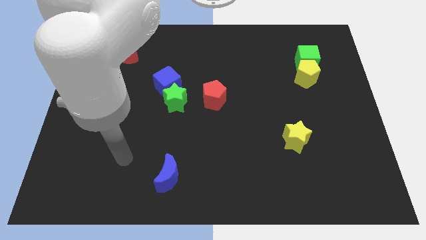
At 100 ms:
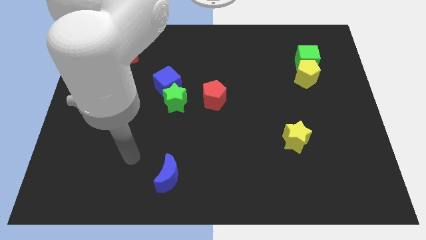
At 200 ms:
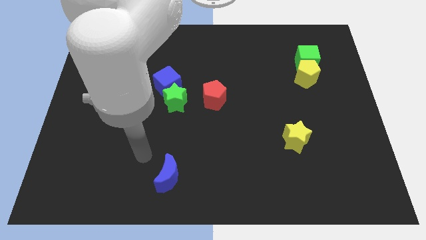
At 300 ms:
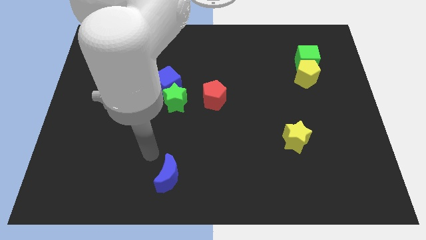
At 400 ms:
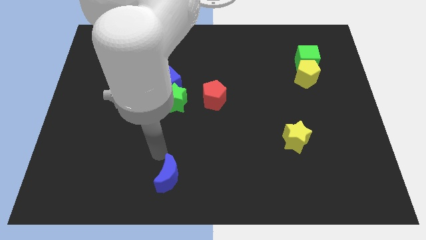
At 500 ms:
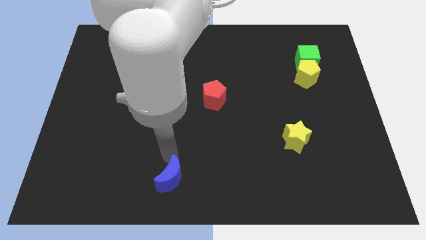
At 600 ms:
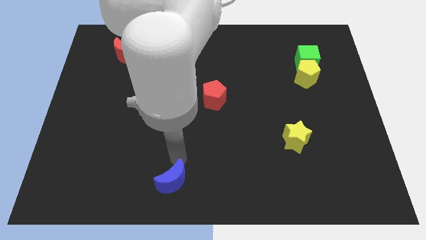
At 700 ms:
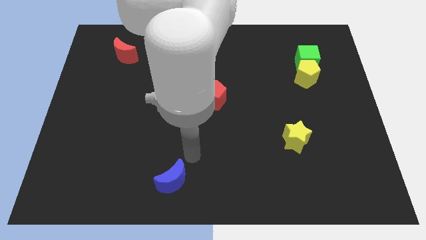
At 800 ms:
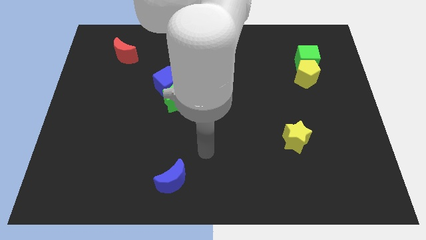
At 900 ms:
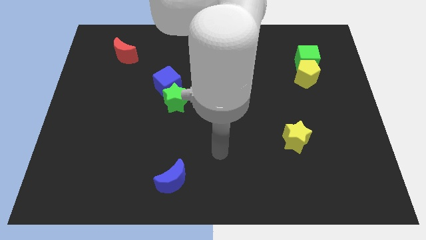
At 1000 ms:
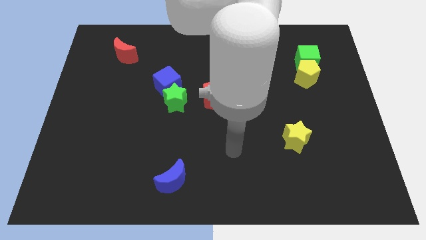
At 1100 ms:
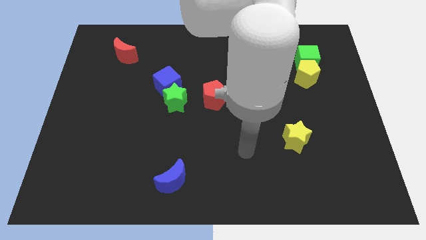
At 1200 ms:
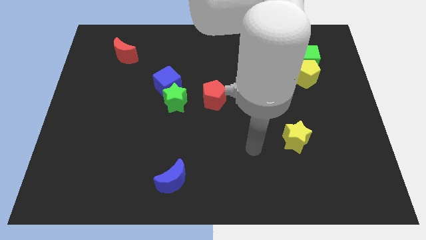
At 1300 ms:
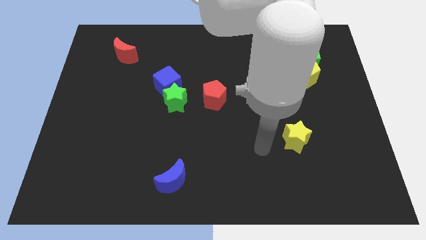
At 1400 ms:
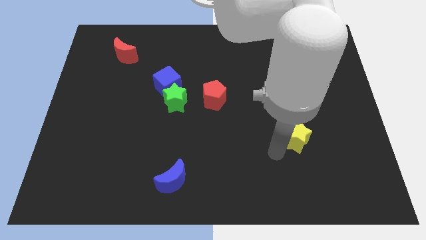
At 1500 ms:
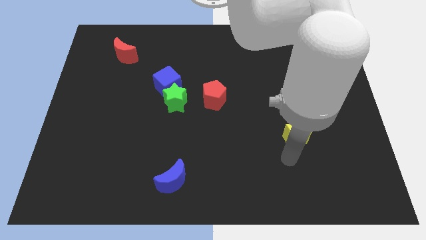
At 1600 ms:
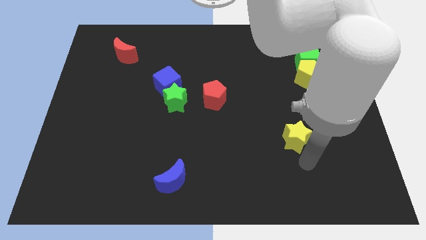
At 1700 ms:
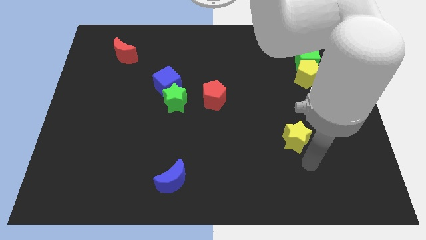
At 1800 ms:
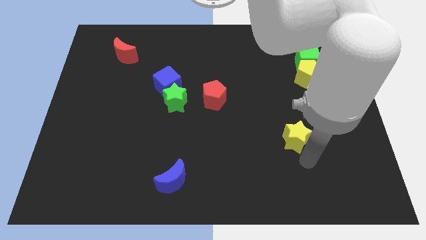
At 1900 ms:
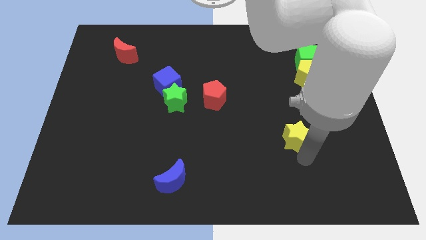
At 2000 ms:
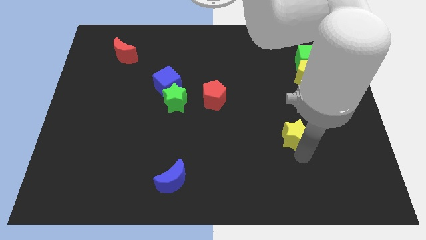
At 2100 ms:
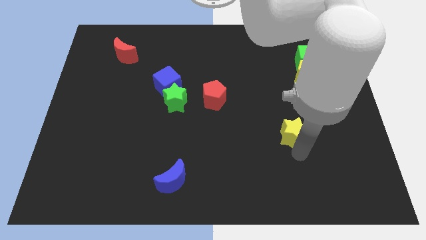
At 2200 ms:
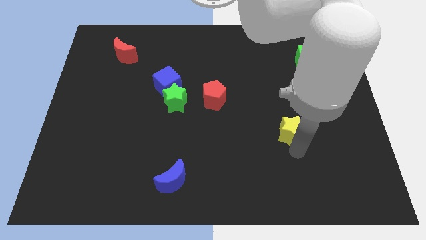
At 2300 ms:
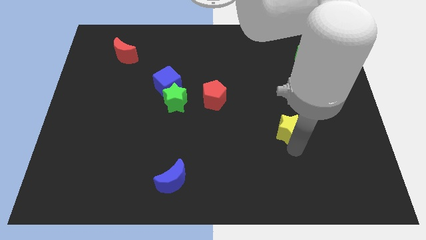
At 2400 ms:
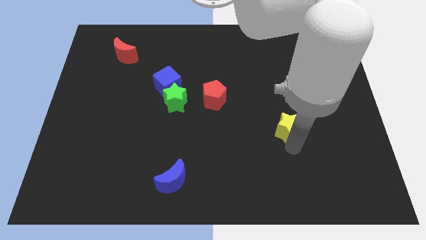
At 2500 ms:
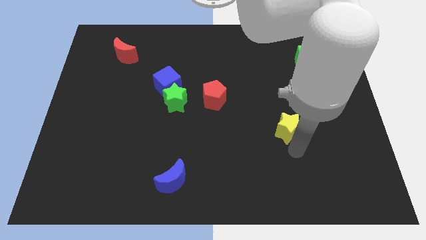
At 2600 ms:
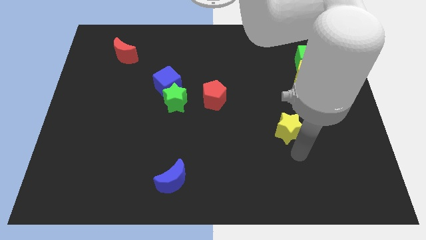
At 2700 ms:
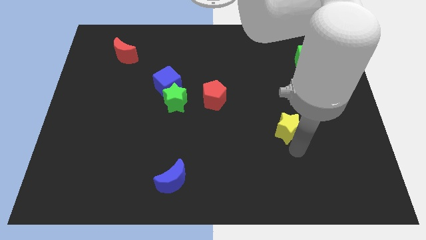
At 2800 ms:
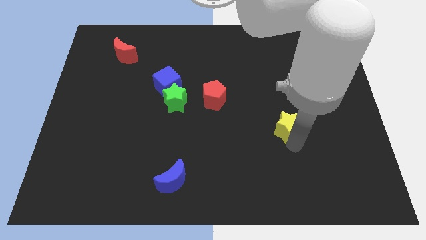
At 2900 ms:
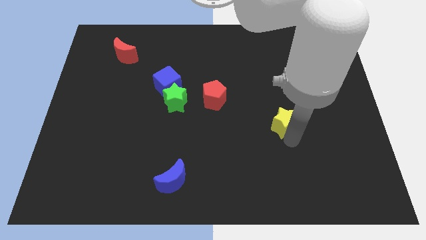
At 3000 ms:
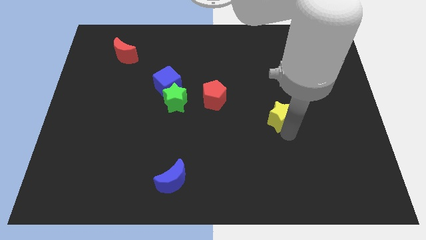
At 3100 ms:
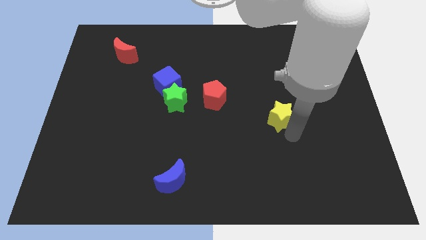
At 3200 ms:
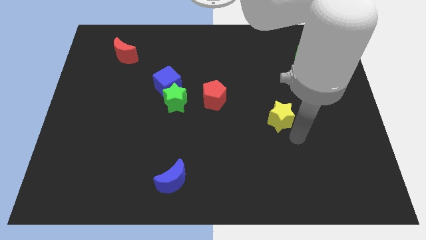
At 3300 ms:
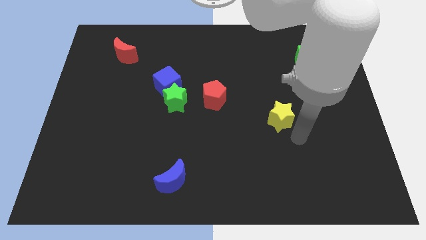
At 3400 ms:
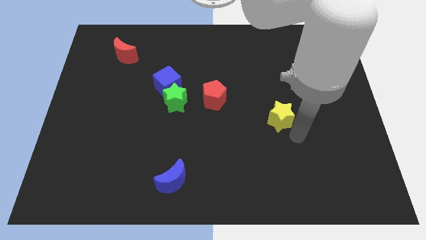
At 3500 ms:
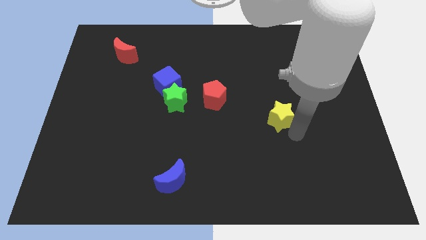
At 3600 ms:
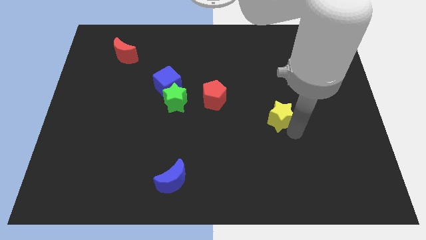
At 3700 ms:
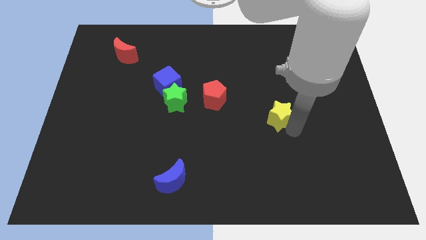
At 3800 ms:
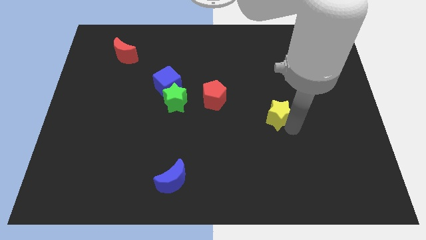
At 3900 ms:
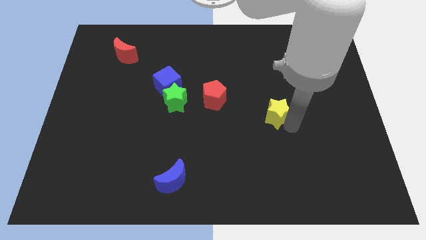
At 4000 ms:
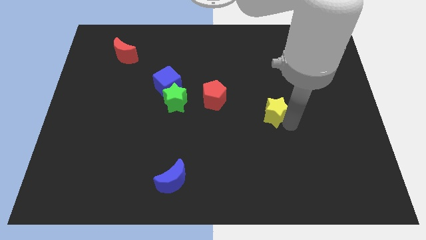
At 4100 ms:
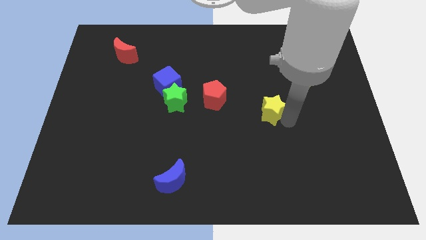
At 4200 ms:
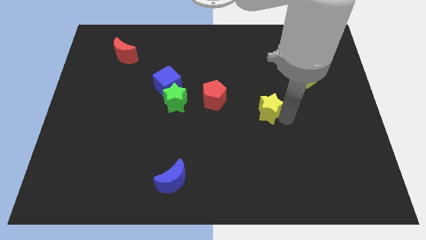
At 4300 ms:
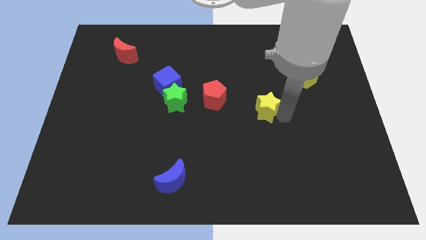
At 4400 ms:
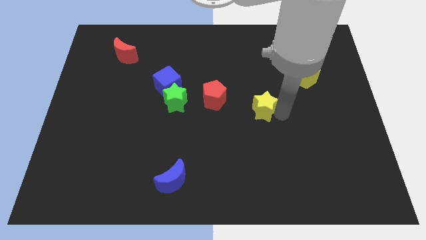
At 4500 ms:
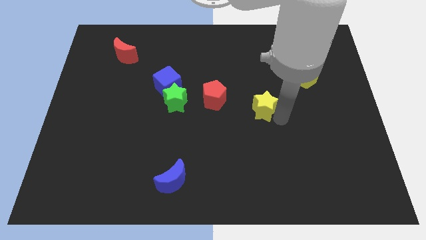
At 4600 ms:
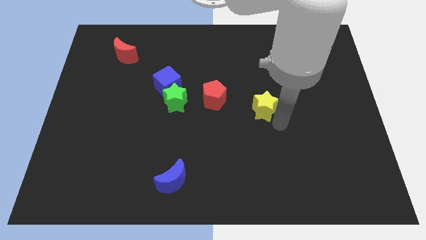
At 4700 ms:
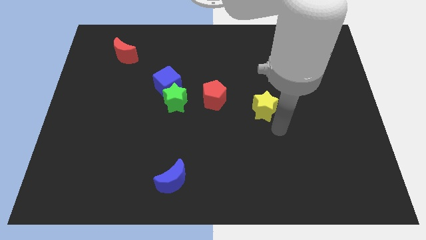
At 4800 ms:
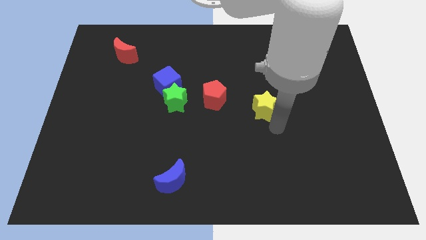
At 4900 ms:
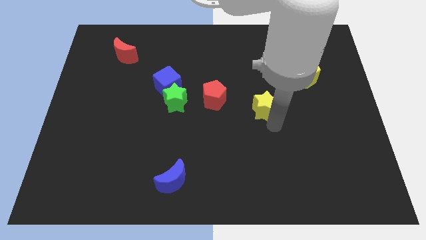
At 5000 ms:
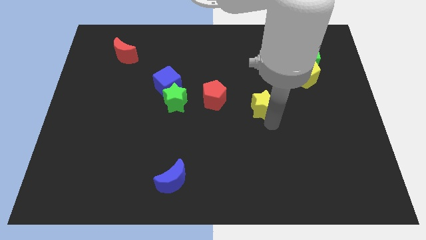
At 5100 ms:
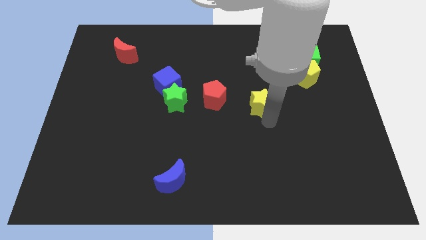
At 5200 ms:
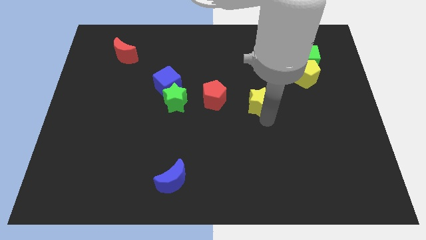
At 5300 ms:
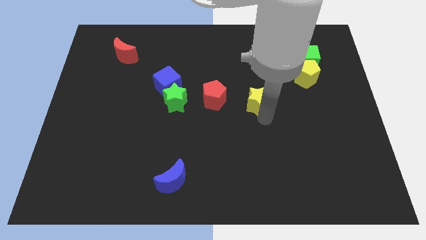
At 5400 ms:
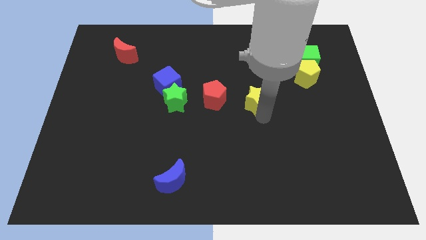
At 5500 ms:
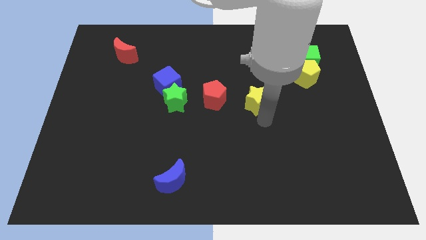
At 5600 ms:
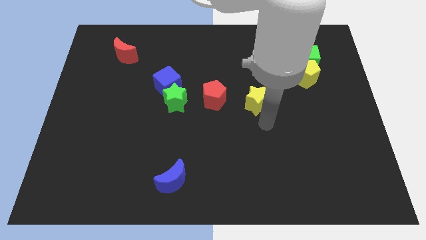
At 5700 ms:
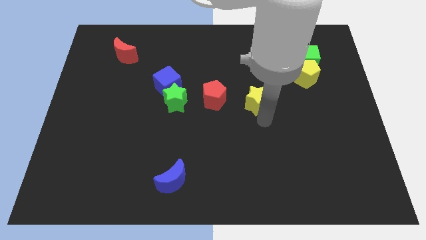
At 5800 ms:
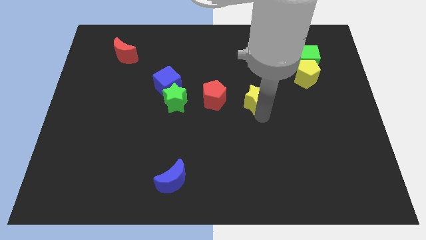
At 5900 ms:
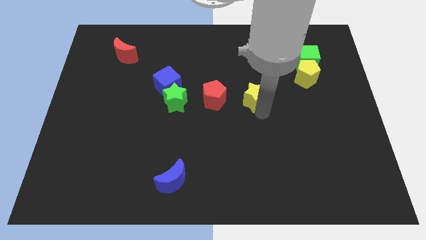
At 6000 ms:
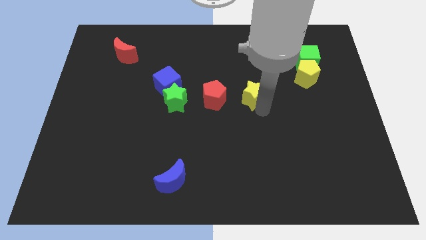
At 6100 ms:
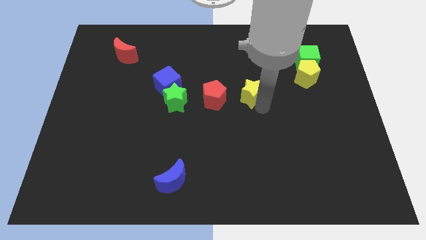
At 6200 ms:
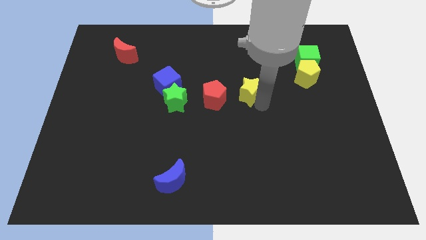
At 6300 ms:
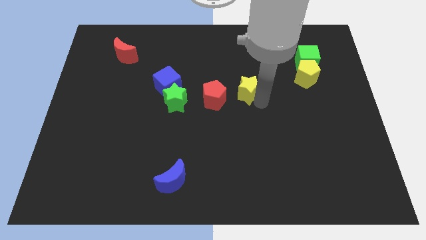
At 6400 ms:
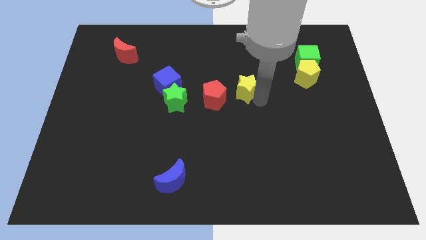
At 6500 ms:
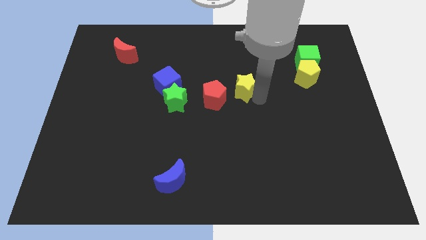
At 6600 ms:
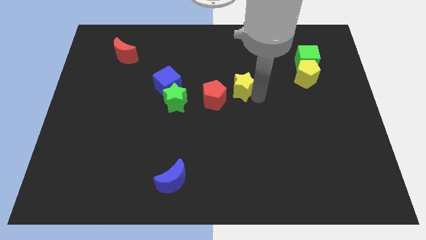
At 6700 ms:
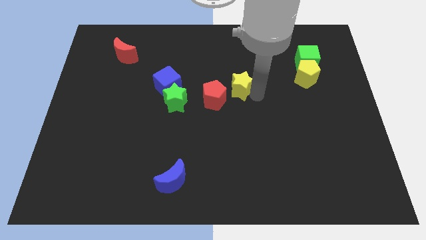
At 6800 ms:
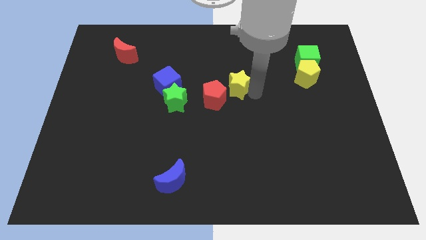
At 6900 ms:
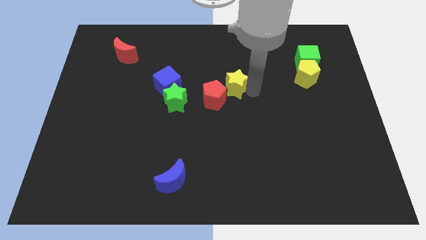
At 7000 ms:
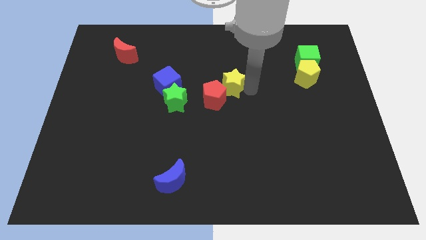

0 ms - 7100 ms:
slide the yellow star upwards and to the left

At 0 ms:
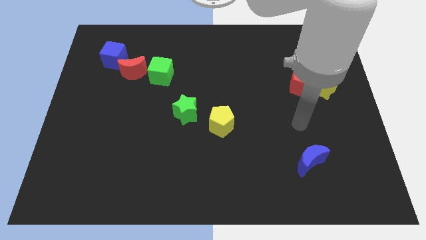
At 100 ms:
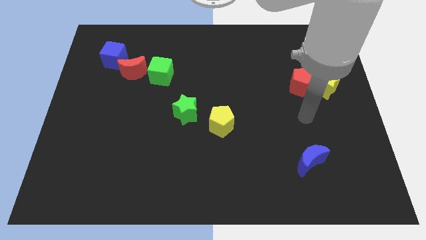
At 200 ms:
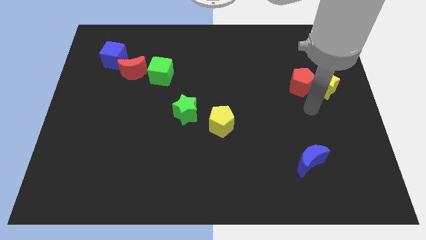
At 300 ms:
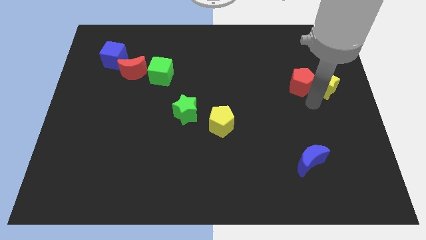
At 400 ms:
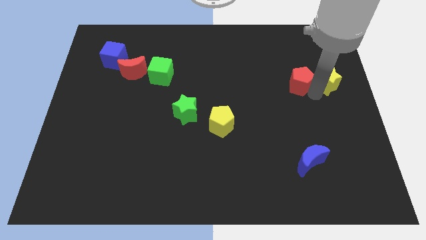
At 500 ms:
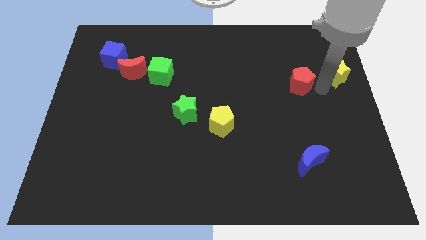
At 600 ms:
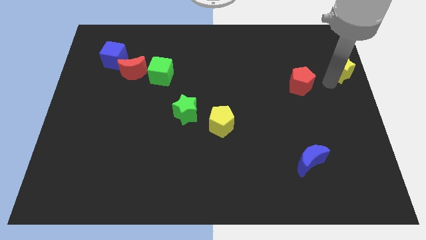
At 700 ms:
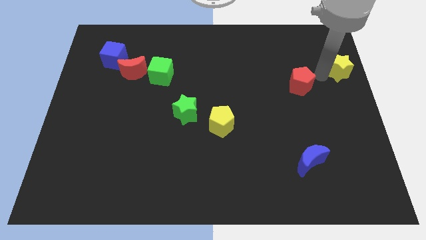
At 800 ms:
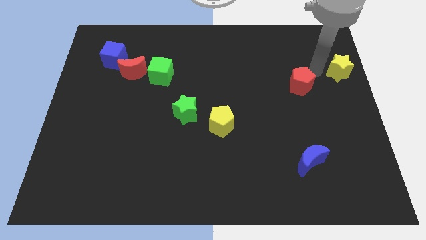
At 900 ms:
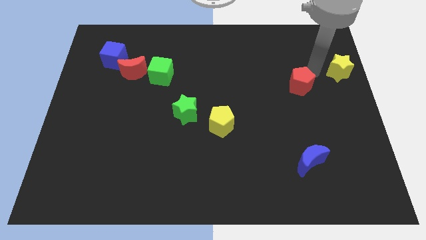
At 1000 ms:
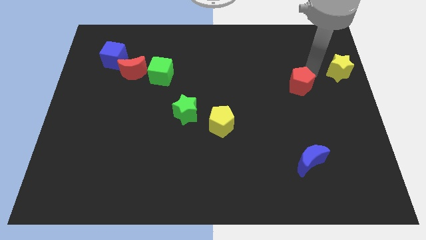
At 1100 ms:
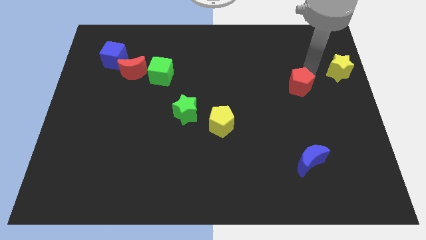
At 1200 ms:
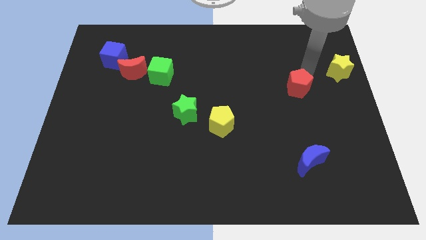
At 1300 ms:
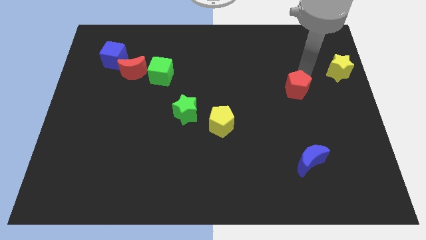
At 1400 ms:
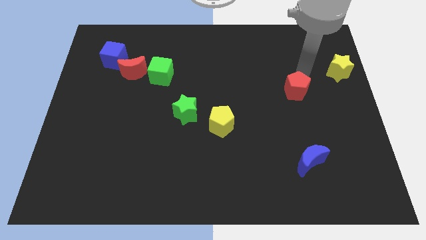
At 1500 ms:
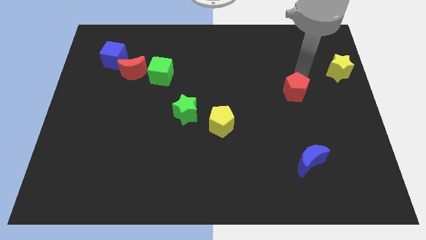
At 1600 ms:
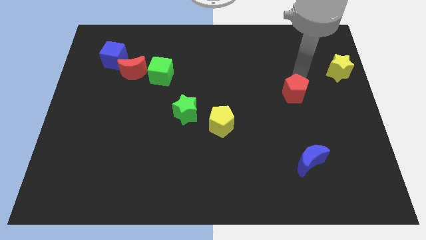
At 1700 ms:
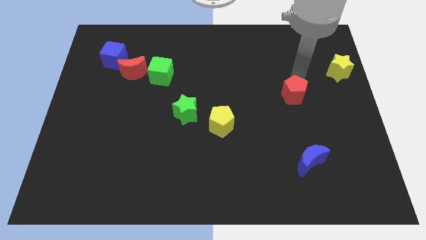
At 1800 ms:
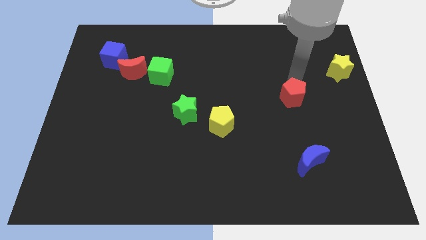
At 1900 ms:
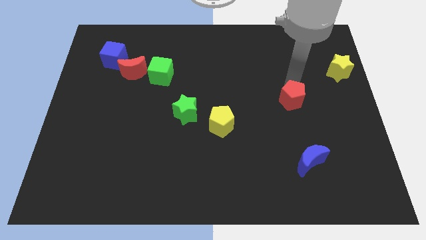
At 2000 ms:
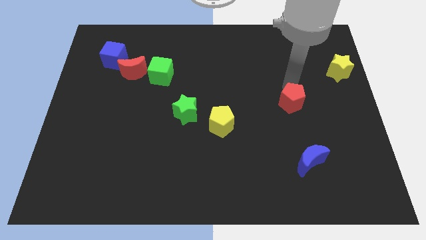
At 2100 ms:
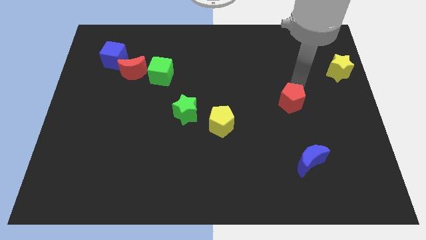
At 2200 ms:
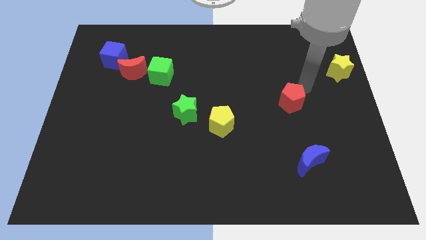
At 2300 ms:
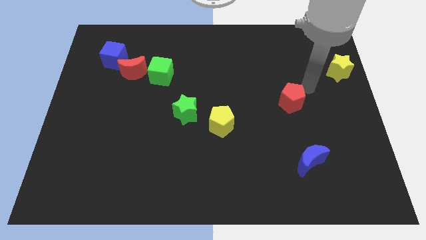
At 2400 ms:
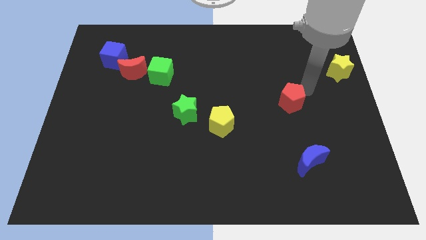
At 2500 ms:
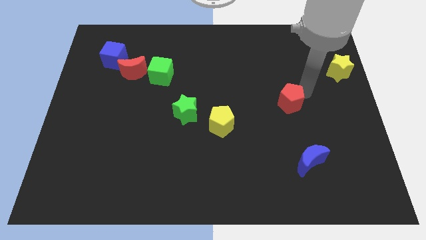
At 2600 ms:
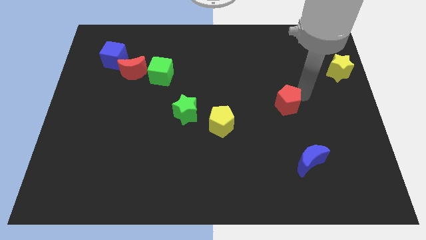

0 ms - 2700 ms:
push the red pentagon down and then to the left a little bit
